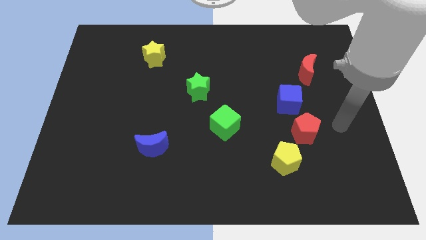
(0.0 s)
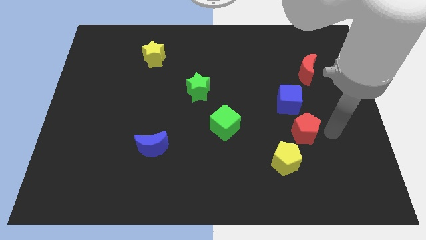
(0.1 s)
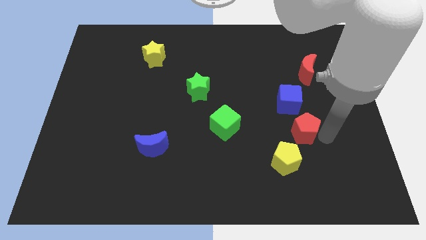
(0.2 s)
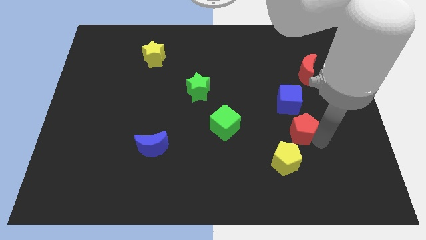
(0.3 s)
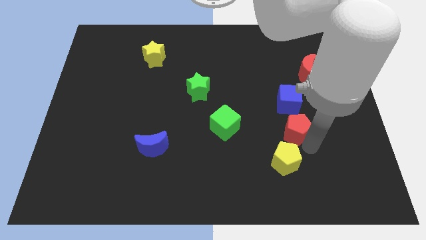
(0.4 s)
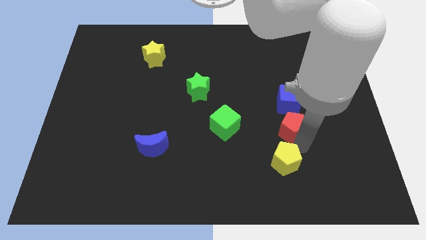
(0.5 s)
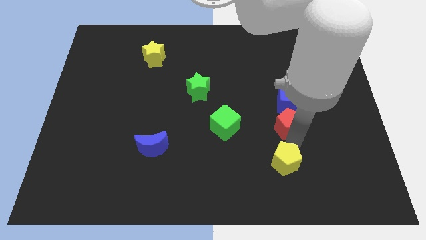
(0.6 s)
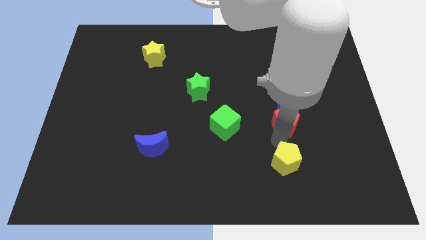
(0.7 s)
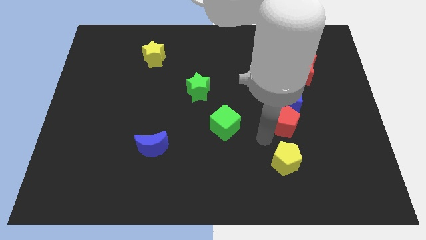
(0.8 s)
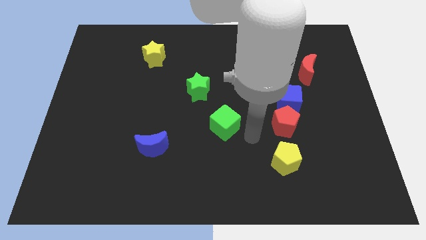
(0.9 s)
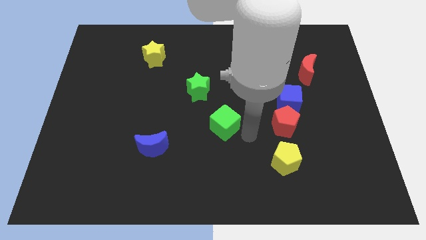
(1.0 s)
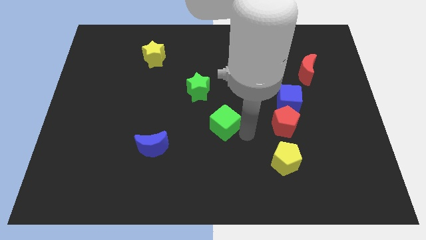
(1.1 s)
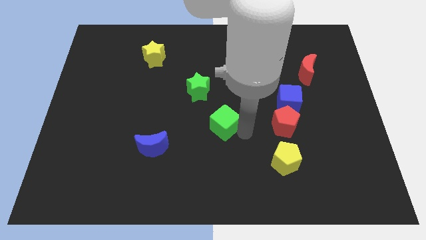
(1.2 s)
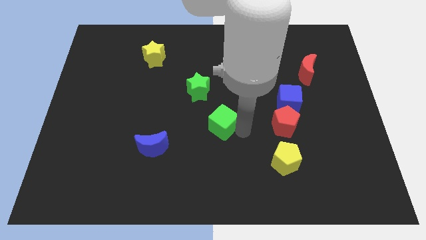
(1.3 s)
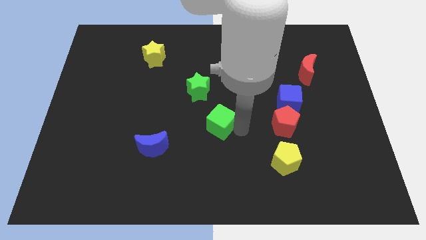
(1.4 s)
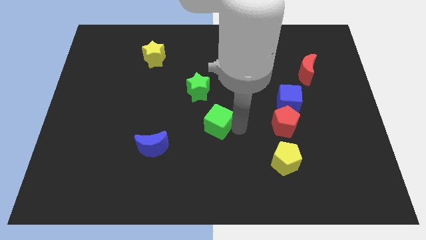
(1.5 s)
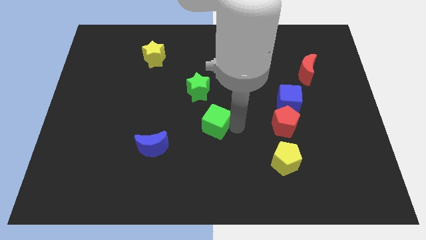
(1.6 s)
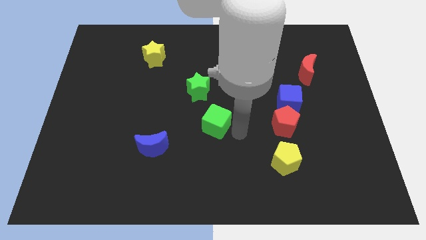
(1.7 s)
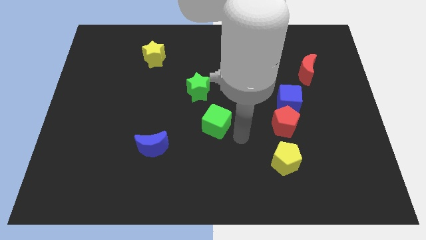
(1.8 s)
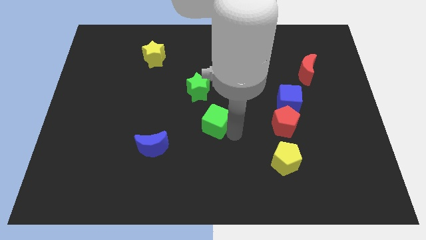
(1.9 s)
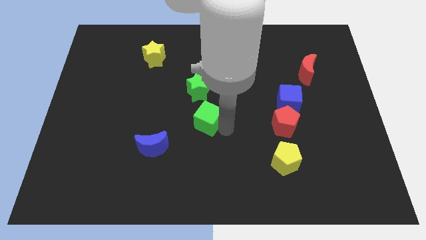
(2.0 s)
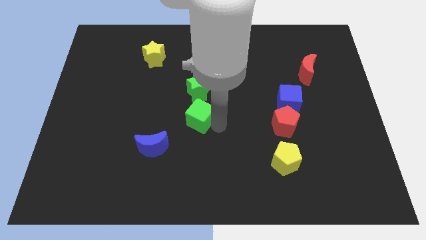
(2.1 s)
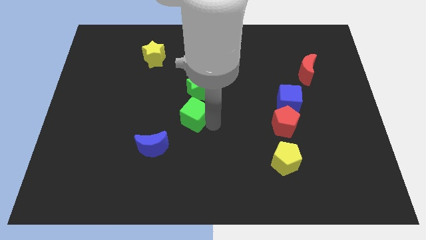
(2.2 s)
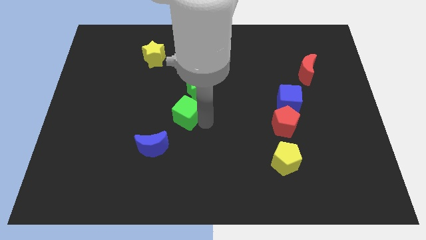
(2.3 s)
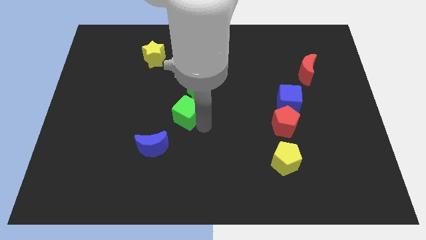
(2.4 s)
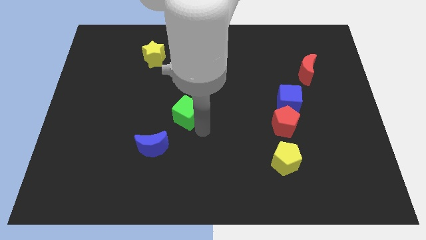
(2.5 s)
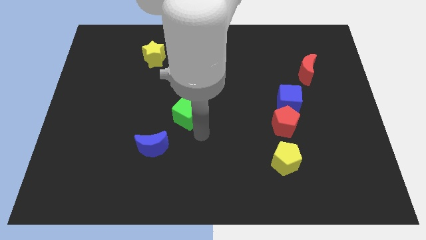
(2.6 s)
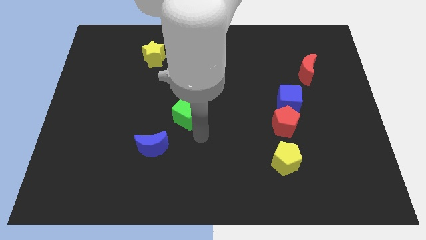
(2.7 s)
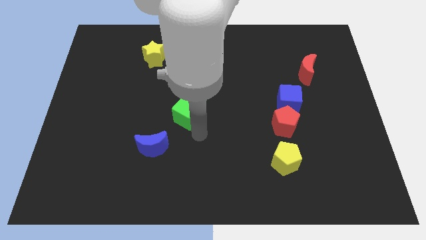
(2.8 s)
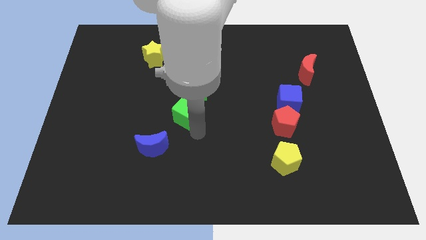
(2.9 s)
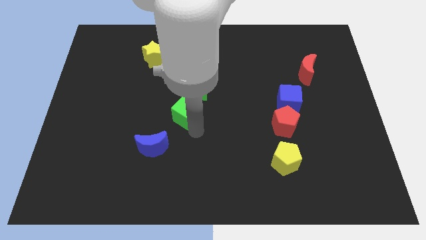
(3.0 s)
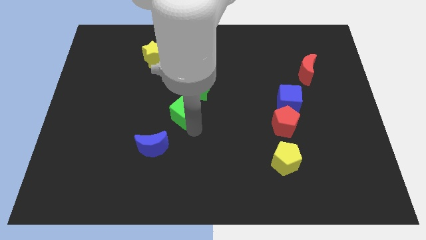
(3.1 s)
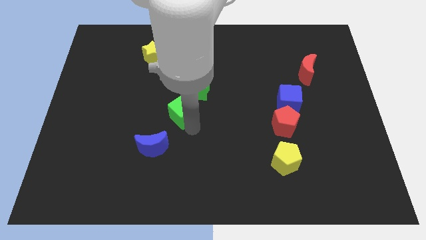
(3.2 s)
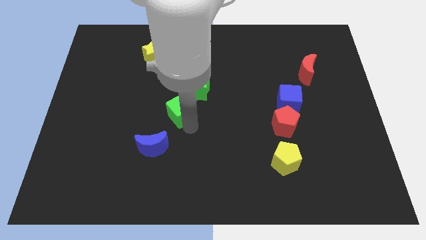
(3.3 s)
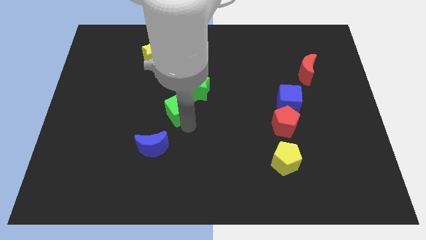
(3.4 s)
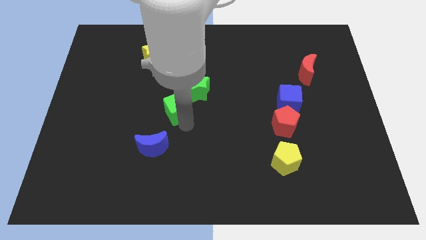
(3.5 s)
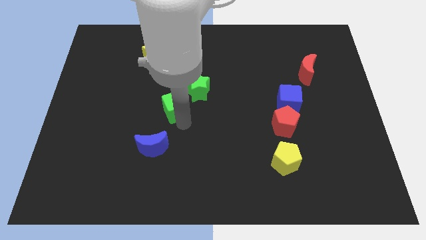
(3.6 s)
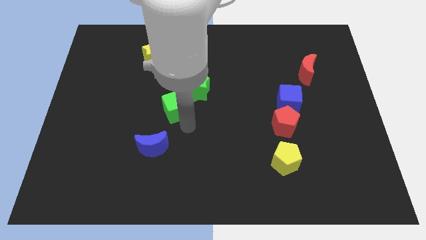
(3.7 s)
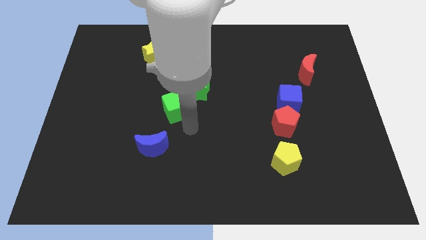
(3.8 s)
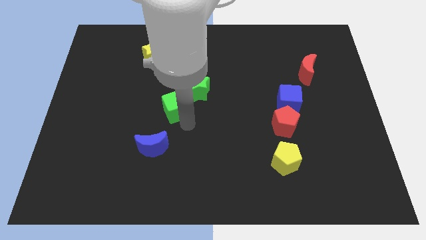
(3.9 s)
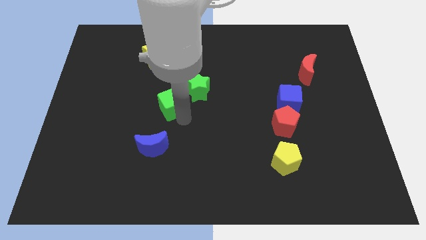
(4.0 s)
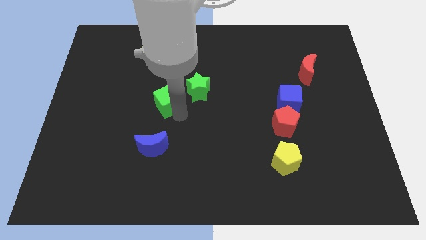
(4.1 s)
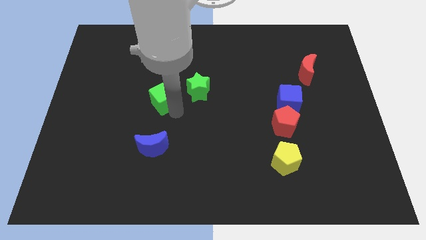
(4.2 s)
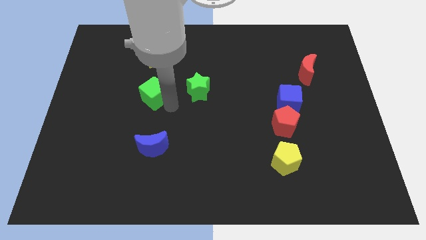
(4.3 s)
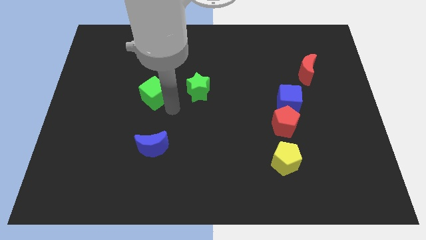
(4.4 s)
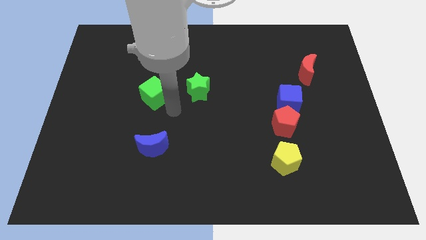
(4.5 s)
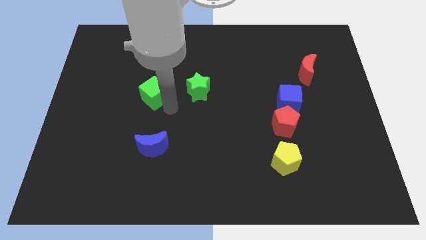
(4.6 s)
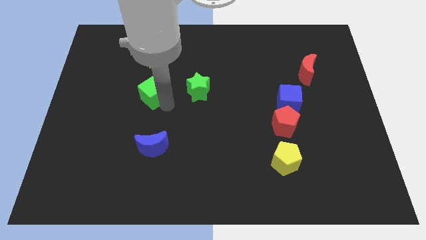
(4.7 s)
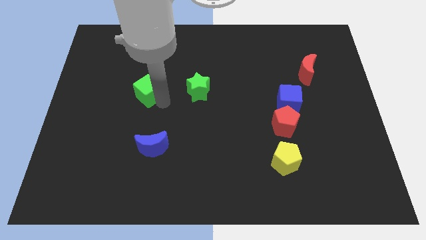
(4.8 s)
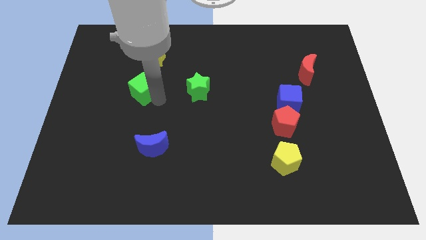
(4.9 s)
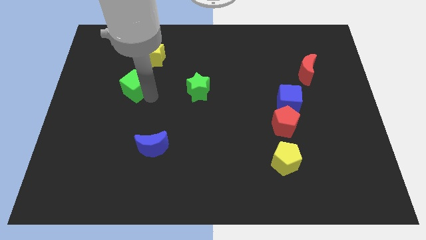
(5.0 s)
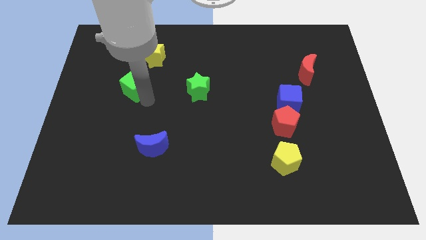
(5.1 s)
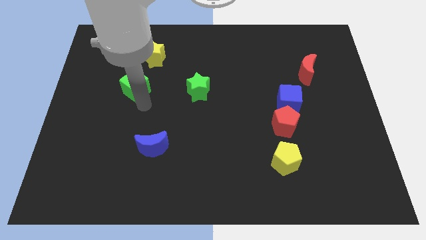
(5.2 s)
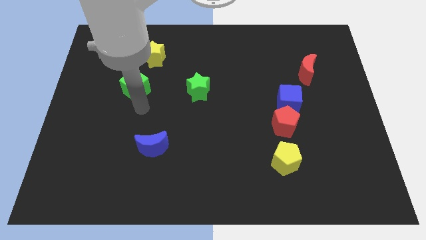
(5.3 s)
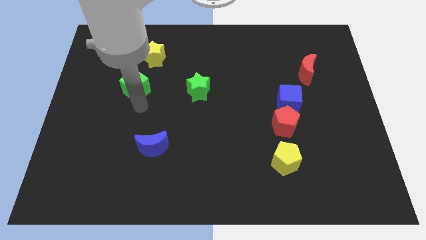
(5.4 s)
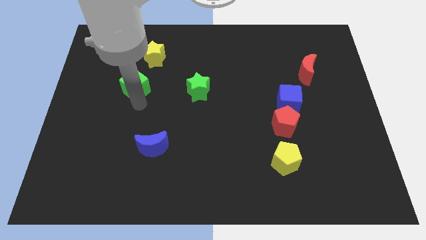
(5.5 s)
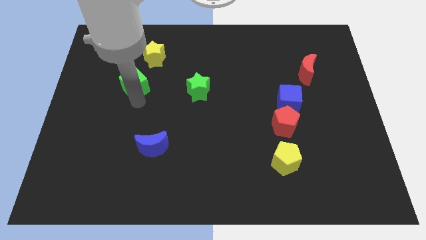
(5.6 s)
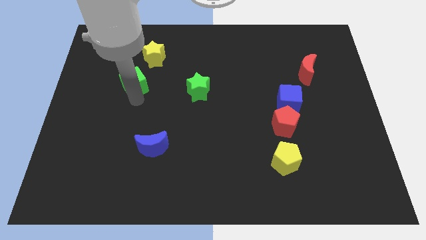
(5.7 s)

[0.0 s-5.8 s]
move the green cube to the bottom left of the yellow star

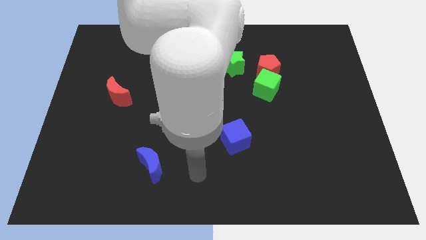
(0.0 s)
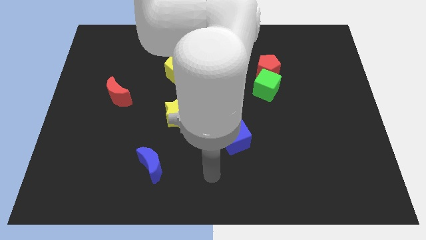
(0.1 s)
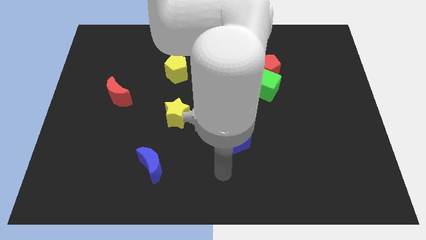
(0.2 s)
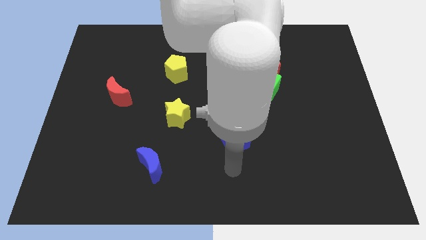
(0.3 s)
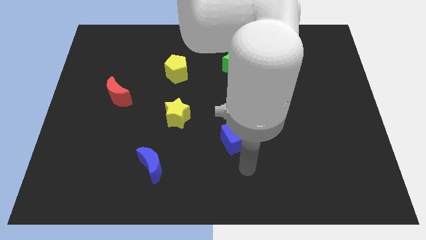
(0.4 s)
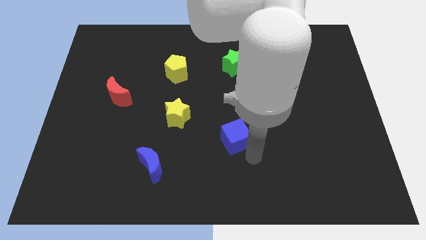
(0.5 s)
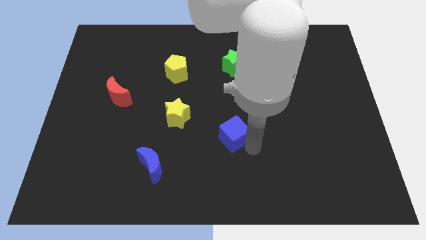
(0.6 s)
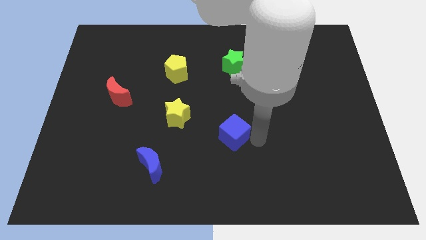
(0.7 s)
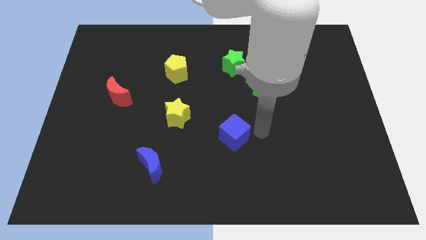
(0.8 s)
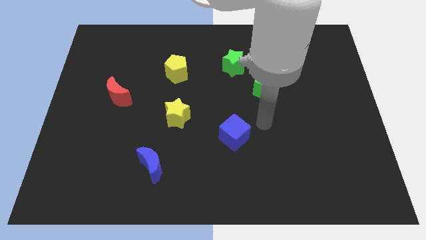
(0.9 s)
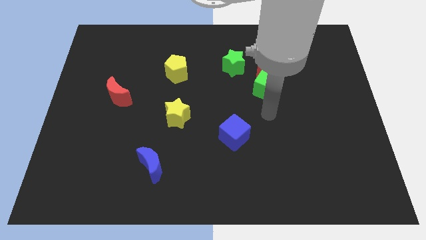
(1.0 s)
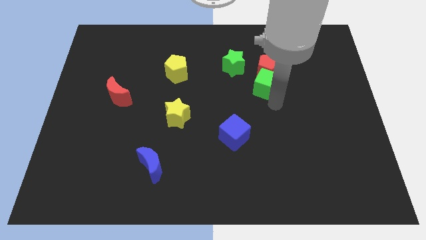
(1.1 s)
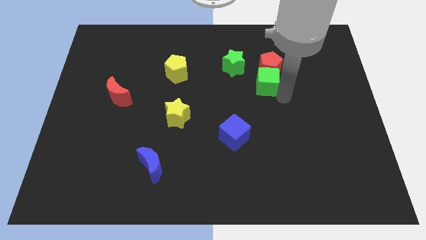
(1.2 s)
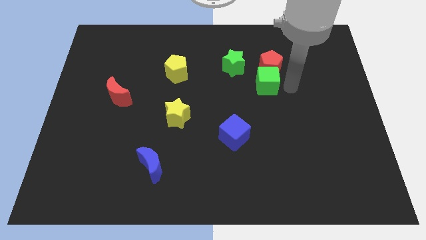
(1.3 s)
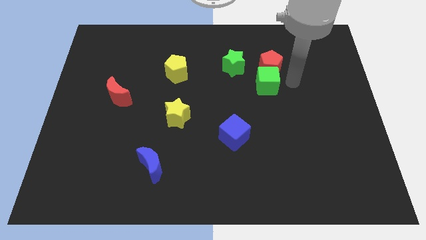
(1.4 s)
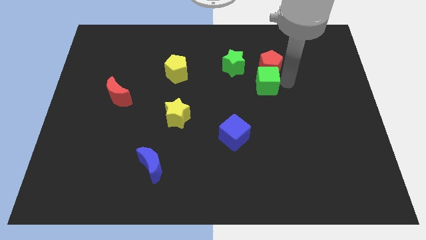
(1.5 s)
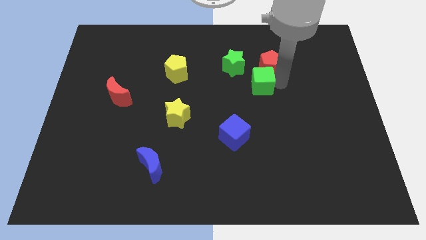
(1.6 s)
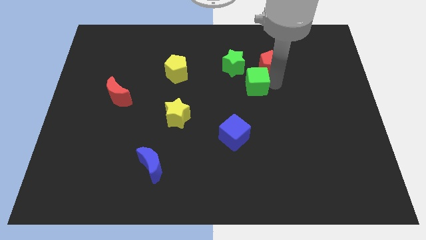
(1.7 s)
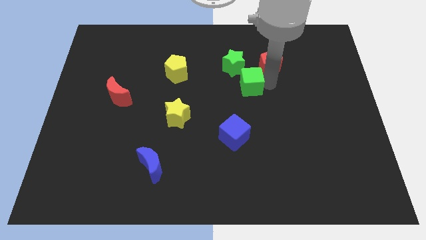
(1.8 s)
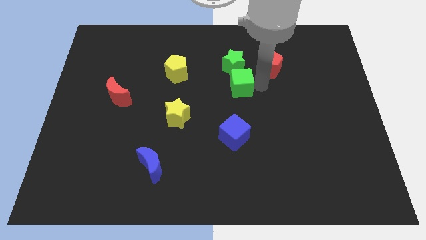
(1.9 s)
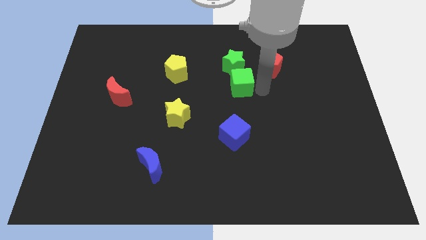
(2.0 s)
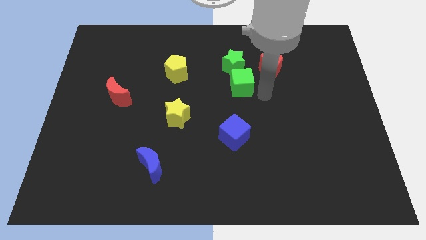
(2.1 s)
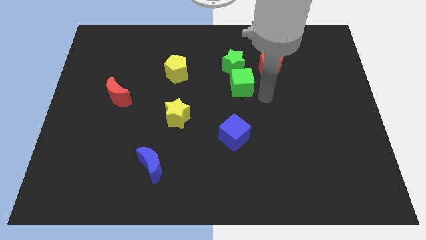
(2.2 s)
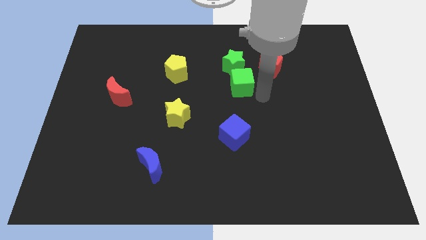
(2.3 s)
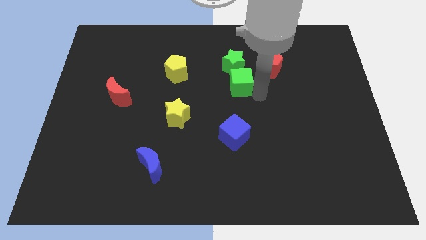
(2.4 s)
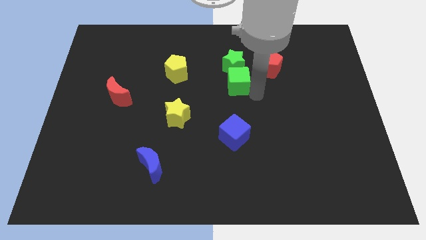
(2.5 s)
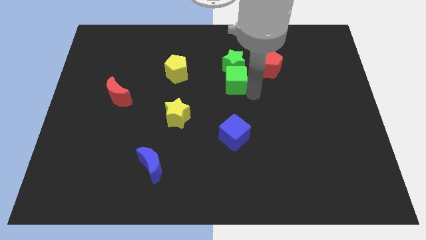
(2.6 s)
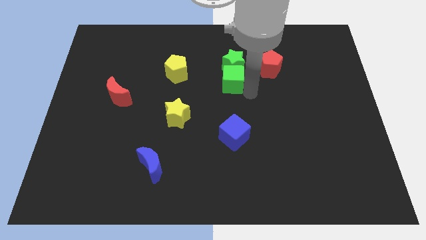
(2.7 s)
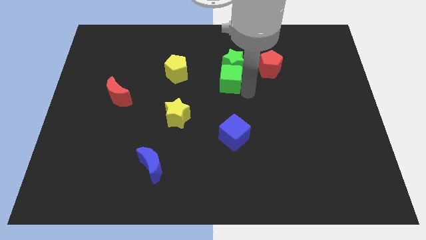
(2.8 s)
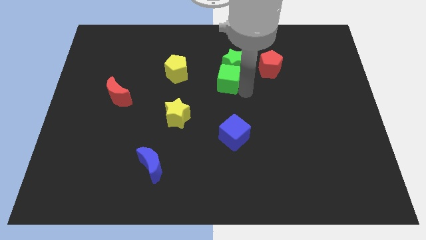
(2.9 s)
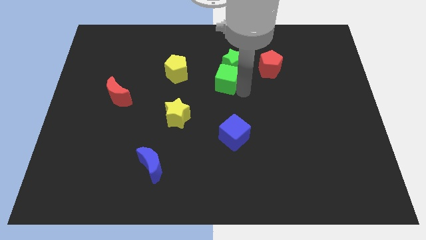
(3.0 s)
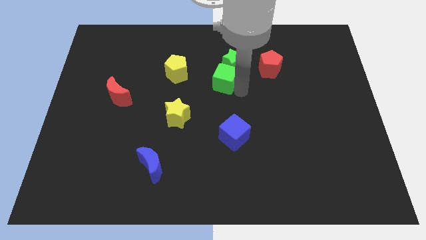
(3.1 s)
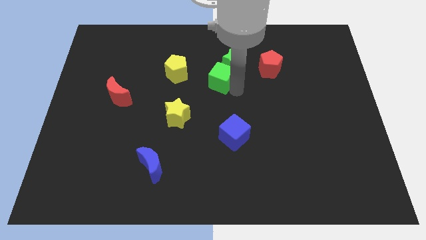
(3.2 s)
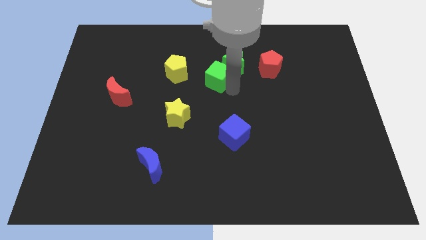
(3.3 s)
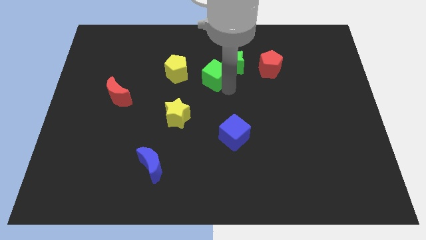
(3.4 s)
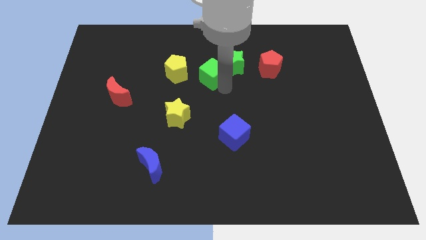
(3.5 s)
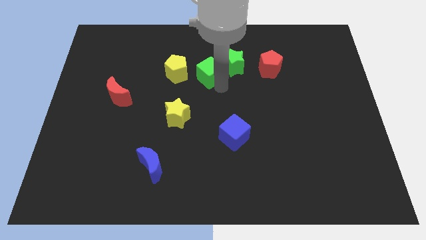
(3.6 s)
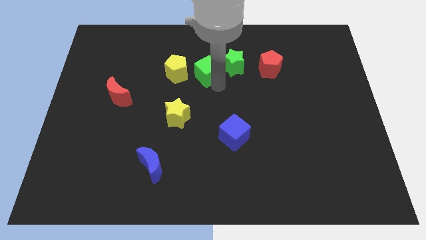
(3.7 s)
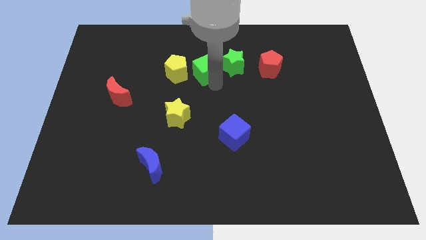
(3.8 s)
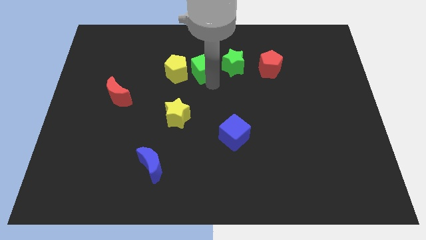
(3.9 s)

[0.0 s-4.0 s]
slide the green cube diagonally up and to the right of the yellow pentagon
